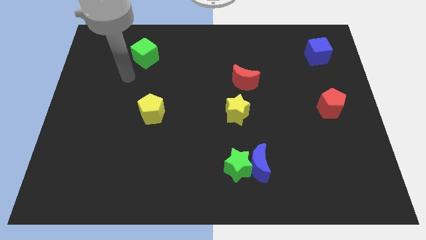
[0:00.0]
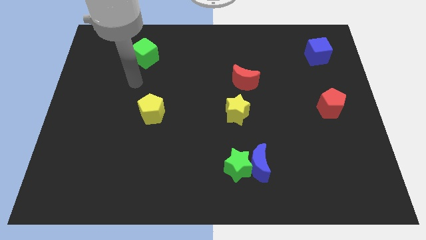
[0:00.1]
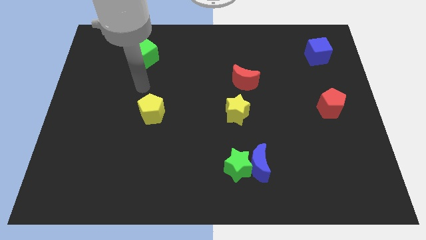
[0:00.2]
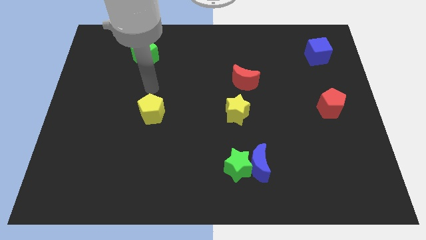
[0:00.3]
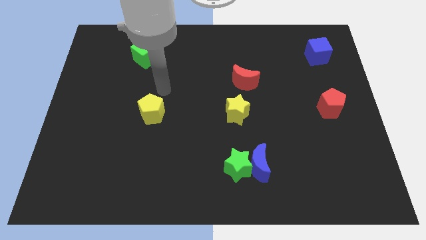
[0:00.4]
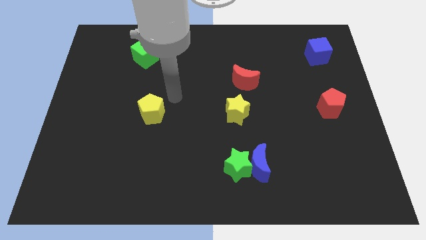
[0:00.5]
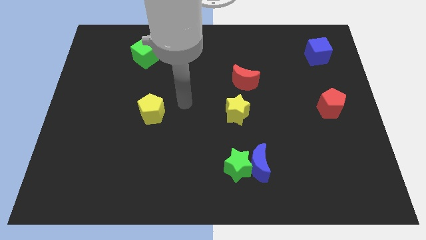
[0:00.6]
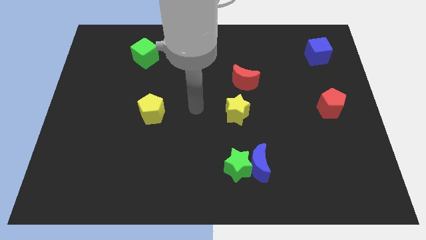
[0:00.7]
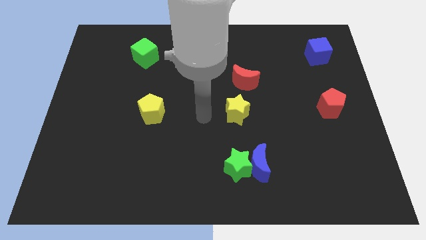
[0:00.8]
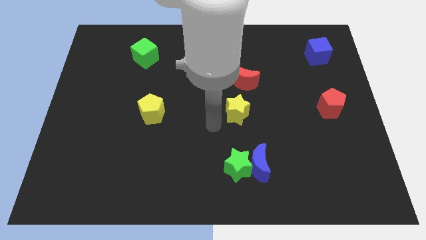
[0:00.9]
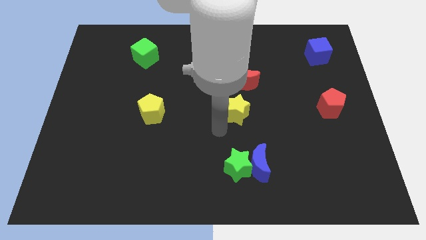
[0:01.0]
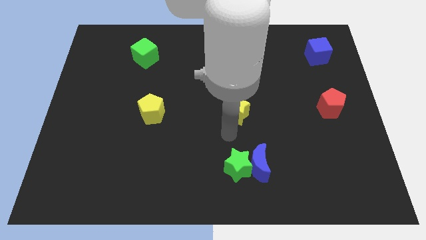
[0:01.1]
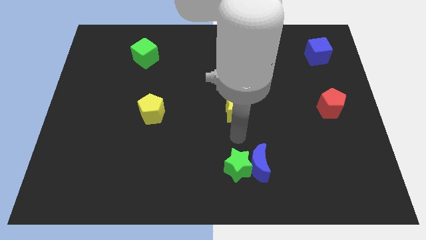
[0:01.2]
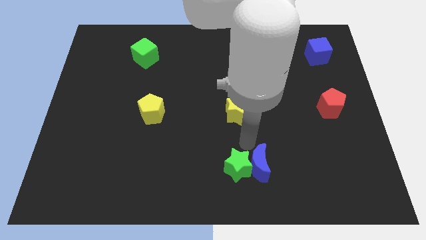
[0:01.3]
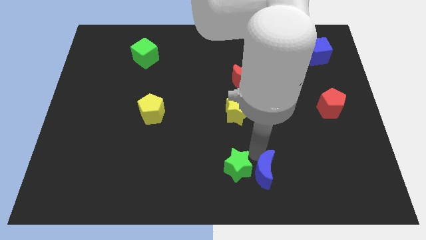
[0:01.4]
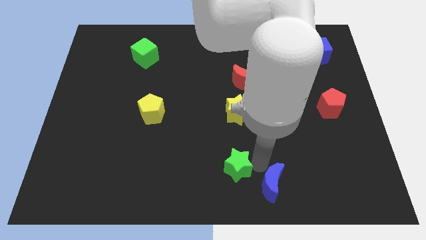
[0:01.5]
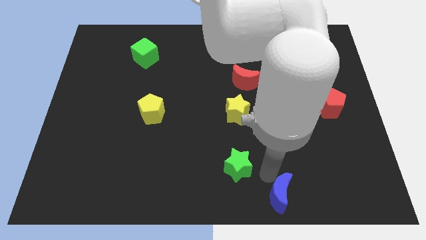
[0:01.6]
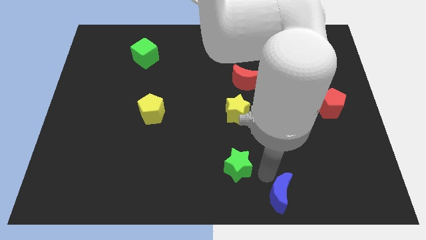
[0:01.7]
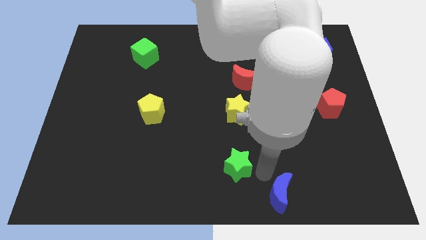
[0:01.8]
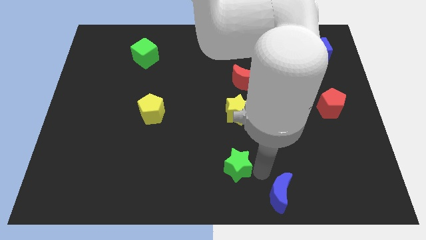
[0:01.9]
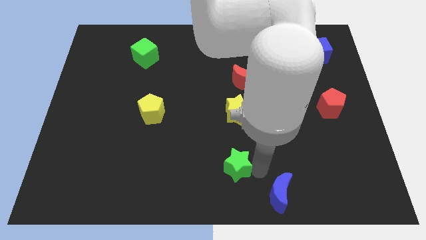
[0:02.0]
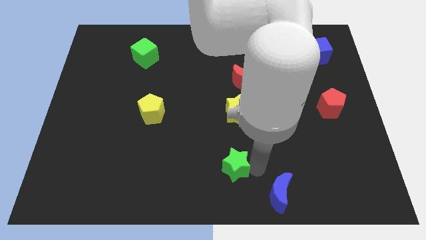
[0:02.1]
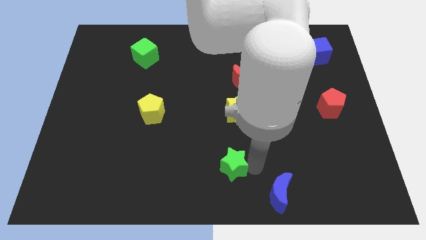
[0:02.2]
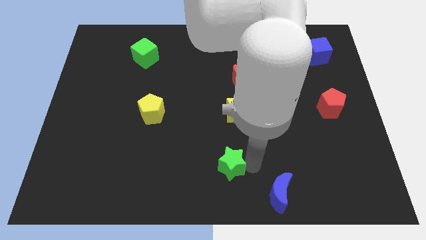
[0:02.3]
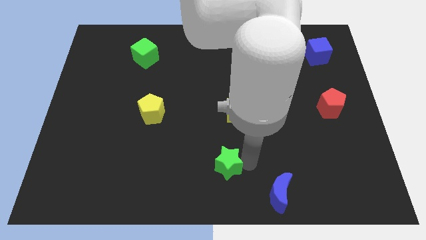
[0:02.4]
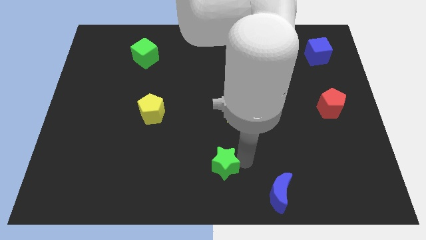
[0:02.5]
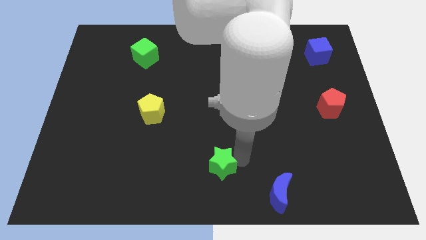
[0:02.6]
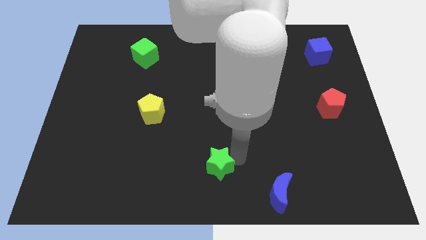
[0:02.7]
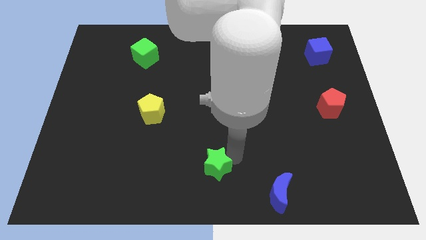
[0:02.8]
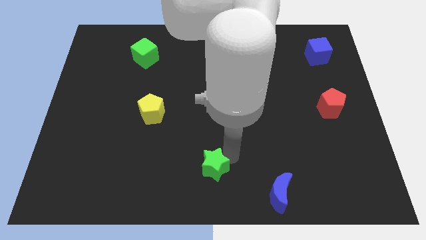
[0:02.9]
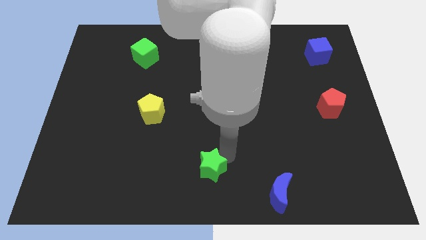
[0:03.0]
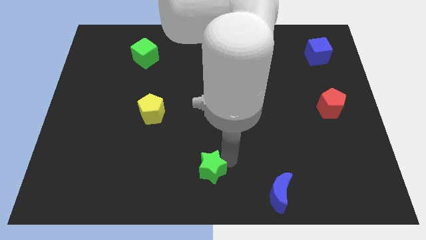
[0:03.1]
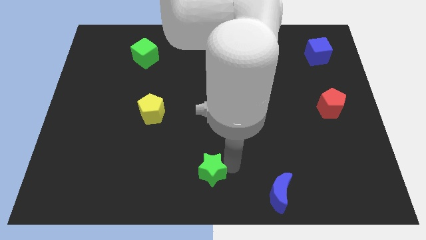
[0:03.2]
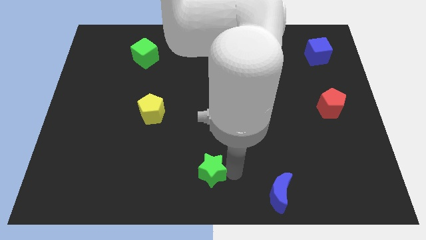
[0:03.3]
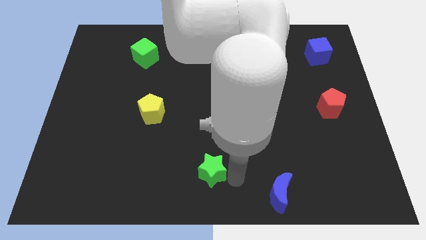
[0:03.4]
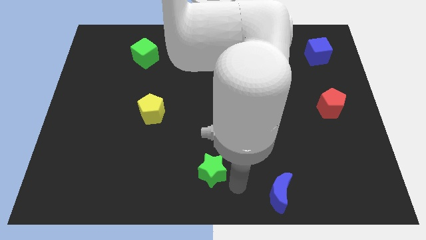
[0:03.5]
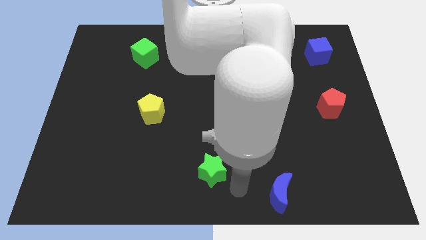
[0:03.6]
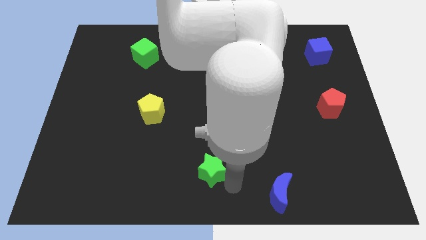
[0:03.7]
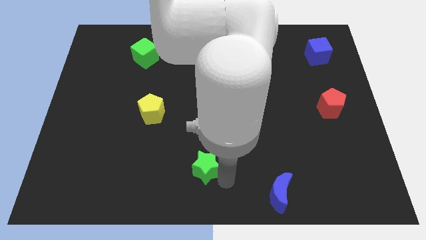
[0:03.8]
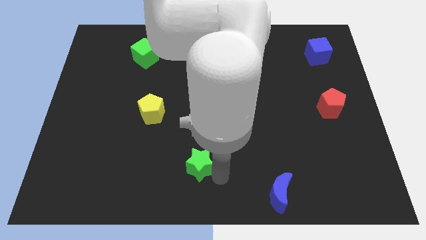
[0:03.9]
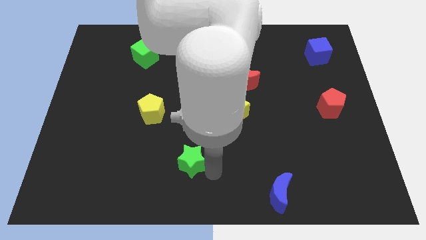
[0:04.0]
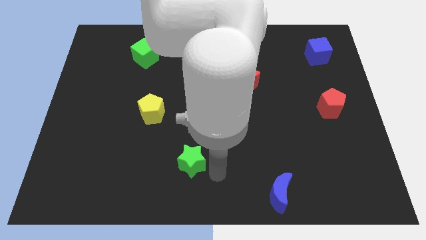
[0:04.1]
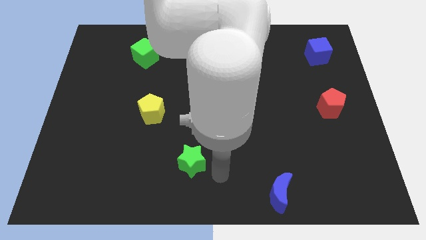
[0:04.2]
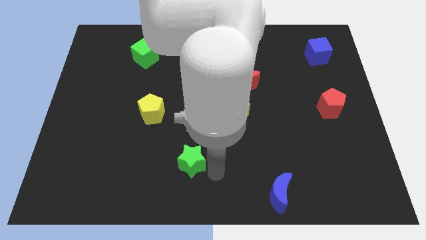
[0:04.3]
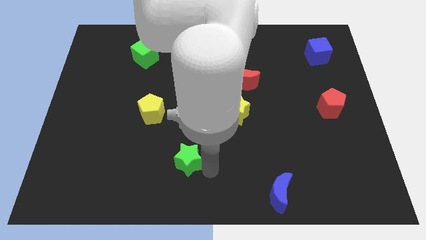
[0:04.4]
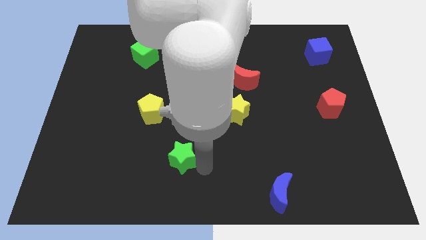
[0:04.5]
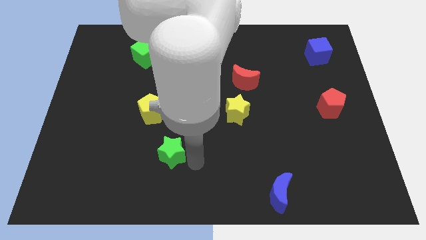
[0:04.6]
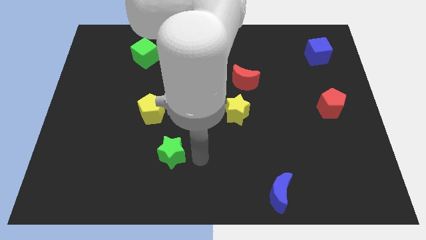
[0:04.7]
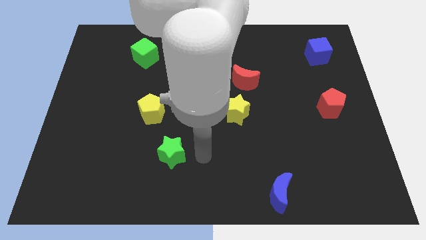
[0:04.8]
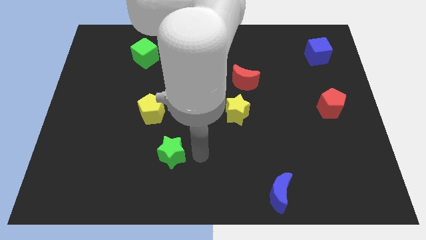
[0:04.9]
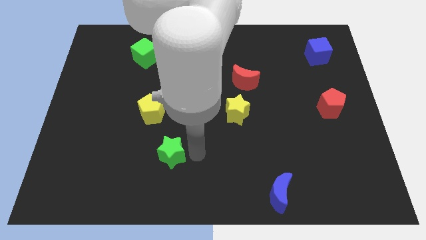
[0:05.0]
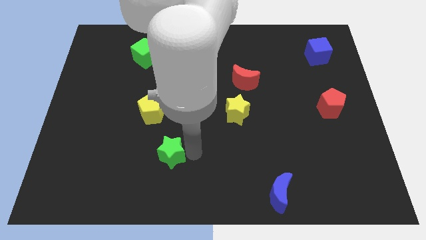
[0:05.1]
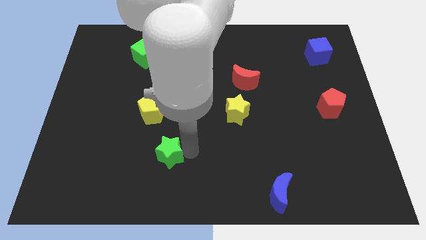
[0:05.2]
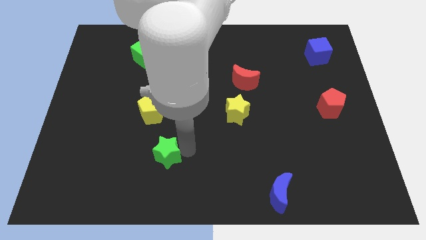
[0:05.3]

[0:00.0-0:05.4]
push the green star below the yellow pentagon

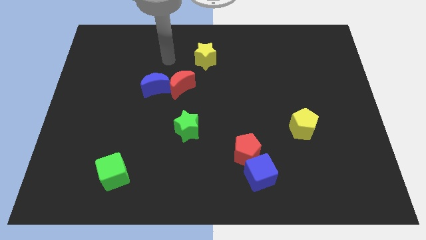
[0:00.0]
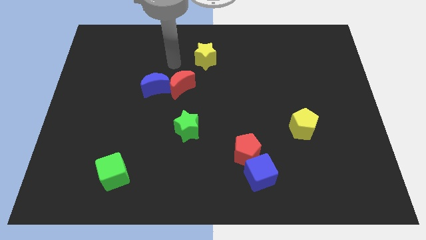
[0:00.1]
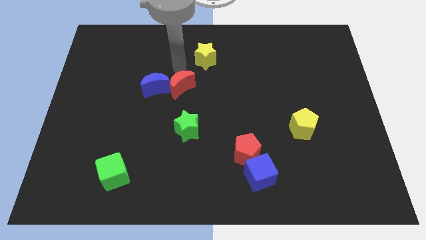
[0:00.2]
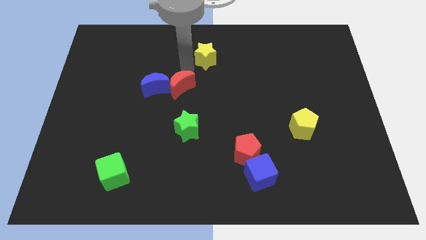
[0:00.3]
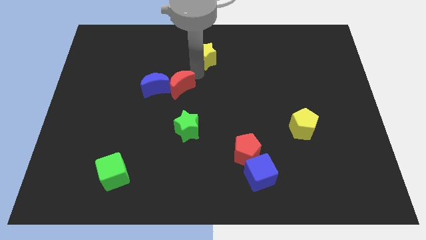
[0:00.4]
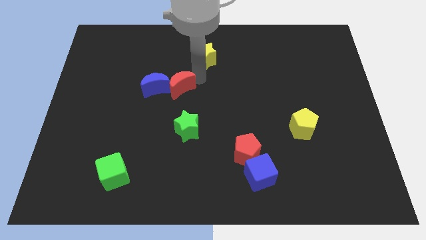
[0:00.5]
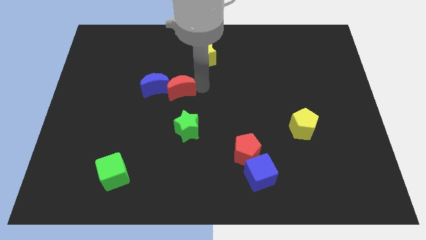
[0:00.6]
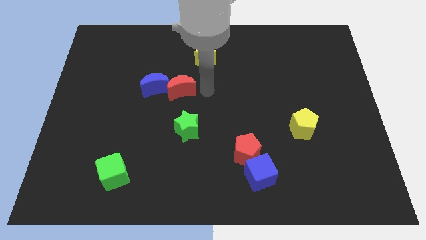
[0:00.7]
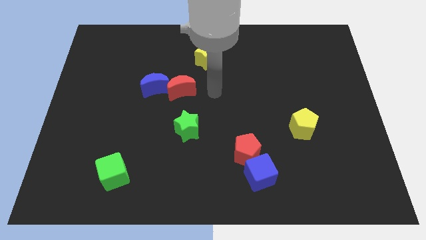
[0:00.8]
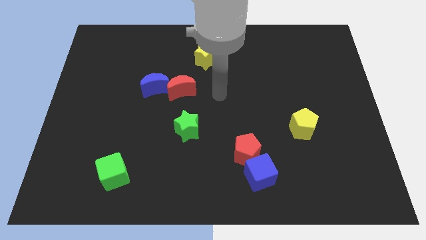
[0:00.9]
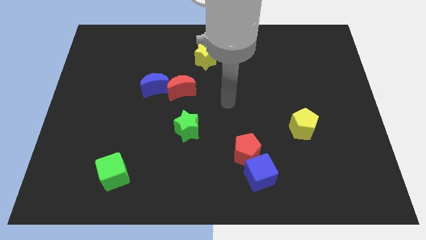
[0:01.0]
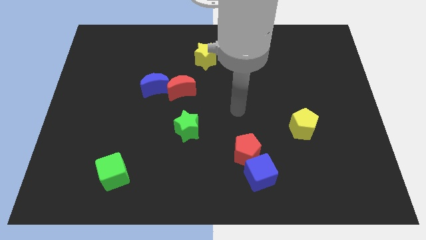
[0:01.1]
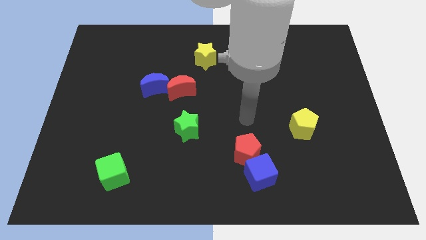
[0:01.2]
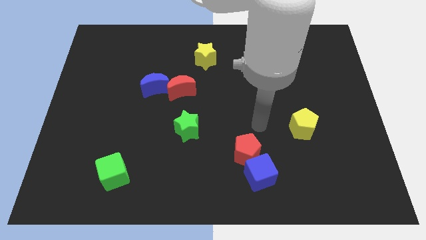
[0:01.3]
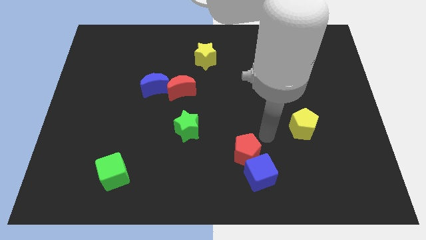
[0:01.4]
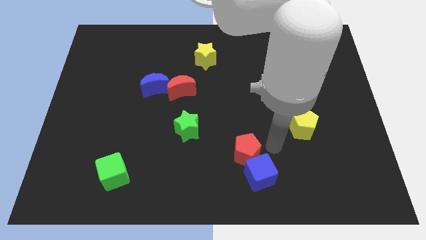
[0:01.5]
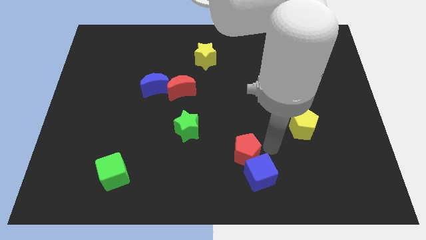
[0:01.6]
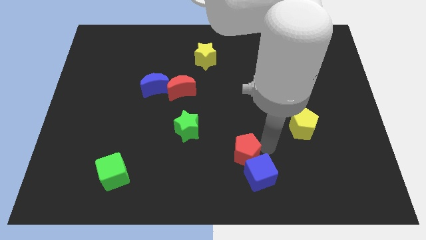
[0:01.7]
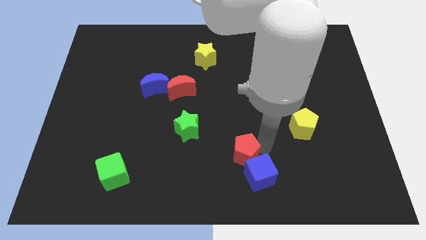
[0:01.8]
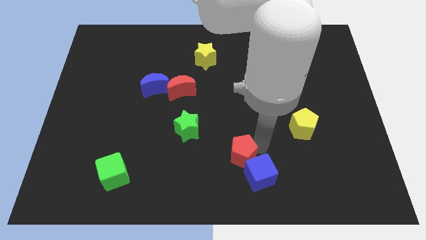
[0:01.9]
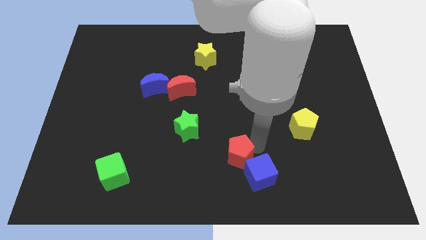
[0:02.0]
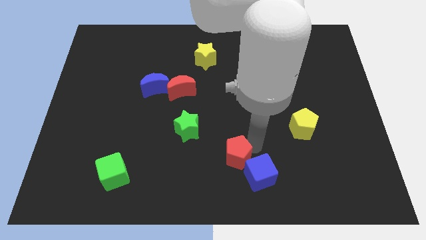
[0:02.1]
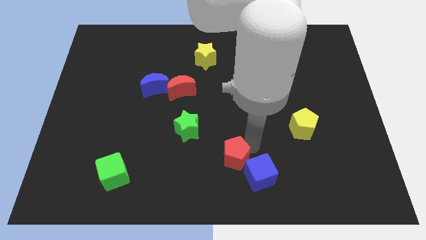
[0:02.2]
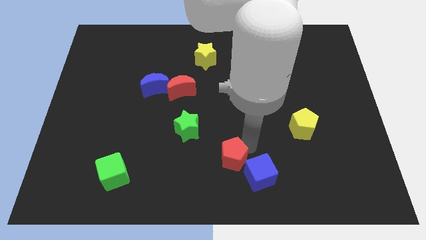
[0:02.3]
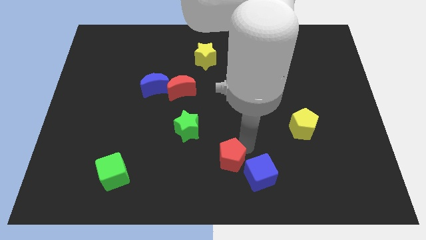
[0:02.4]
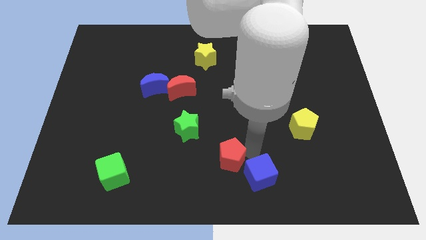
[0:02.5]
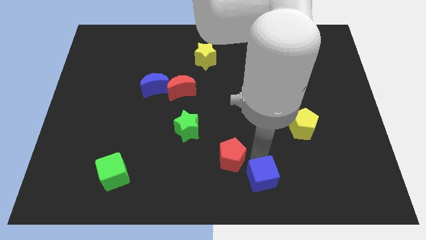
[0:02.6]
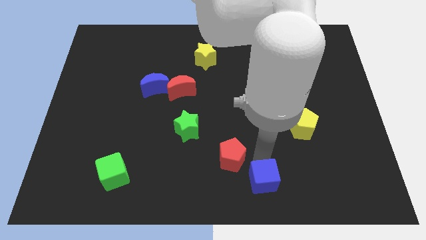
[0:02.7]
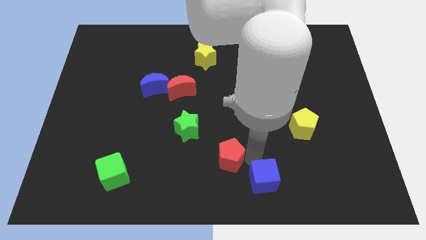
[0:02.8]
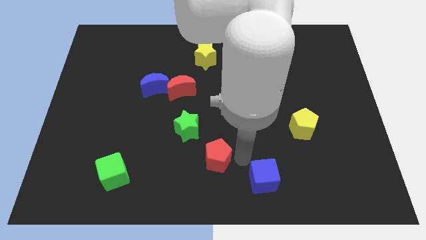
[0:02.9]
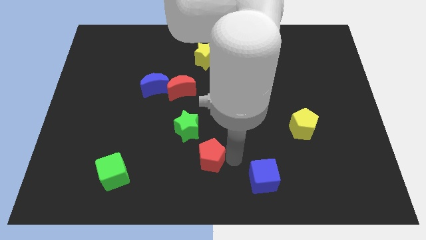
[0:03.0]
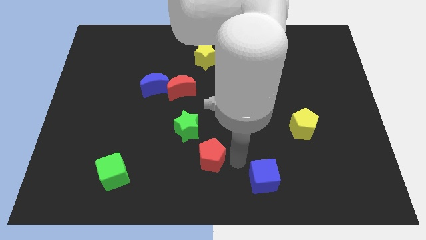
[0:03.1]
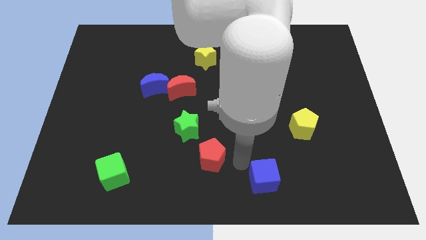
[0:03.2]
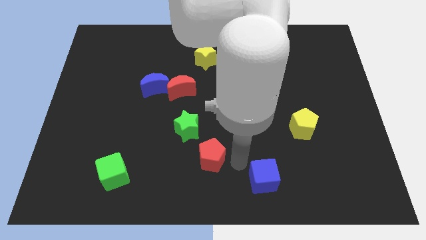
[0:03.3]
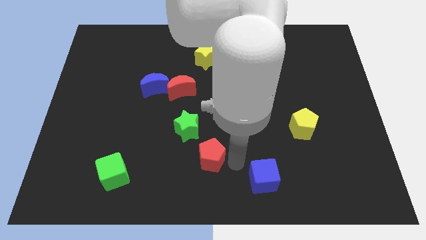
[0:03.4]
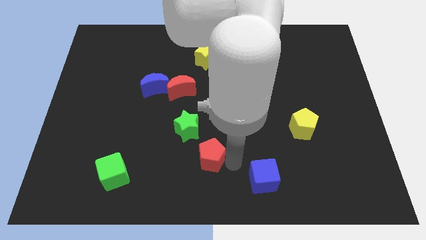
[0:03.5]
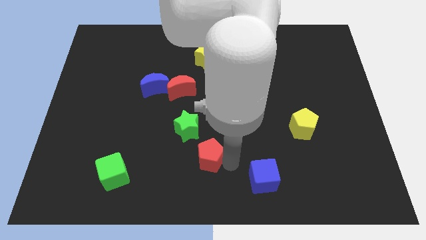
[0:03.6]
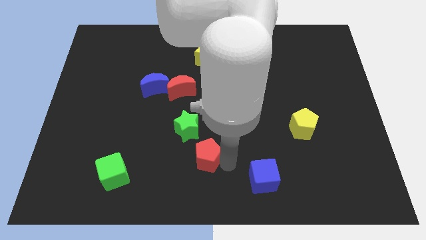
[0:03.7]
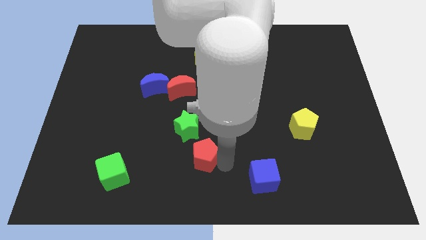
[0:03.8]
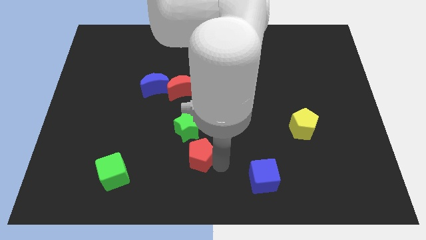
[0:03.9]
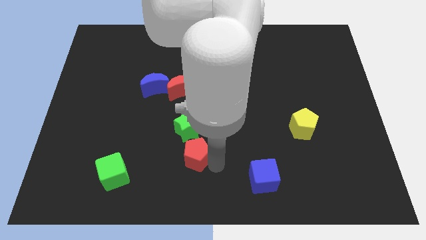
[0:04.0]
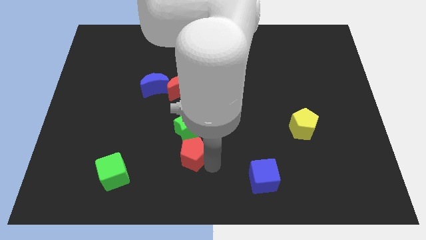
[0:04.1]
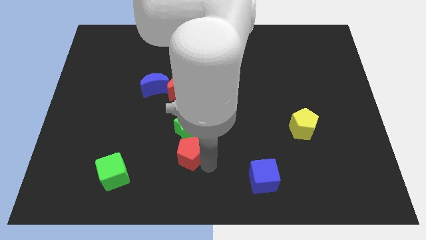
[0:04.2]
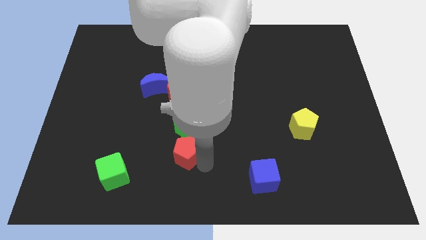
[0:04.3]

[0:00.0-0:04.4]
slide the red pentagon to the bottom left of the green star
